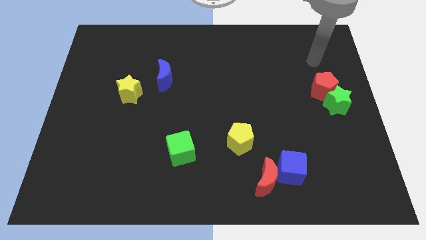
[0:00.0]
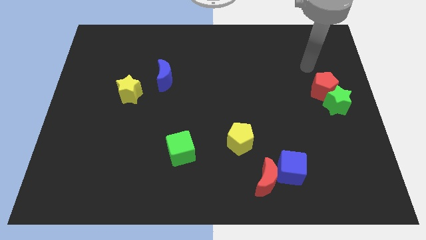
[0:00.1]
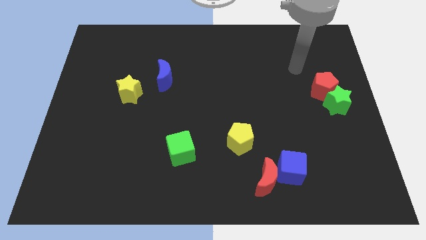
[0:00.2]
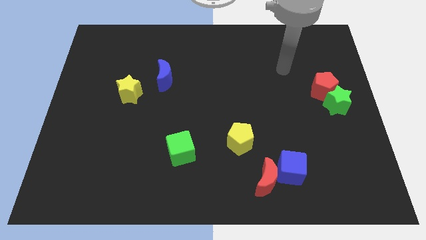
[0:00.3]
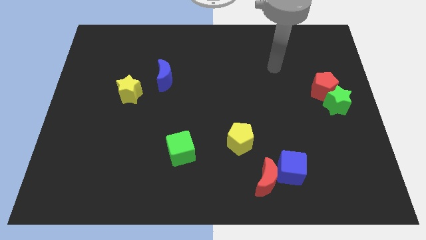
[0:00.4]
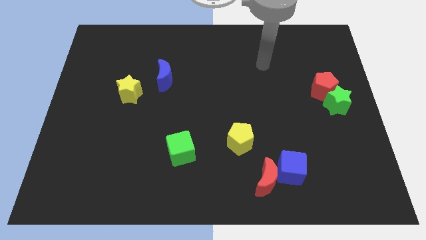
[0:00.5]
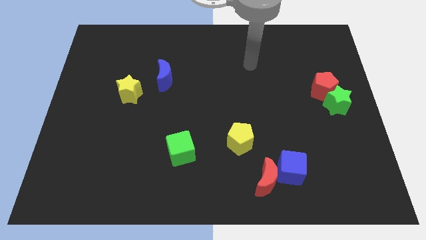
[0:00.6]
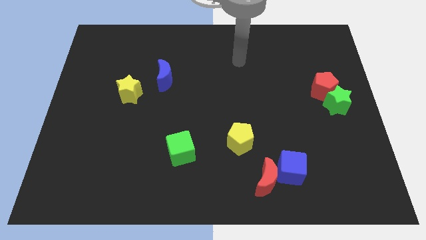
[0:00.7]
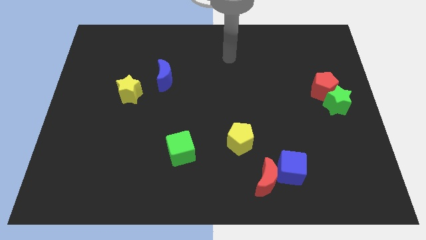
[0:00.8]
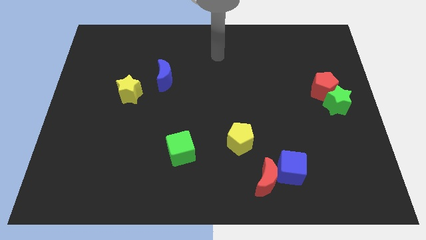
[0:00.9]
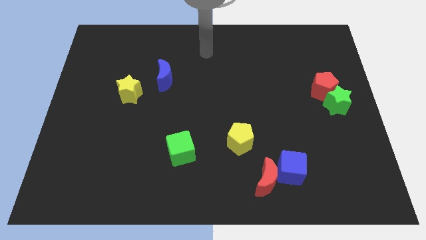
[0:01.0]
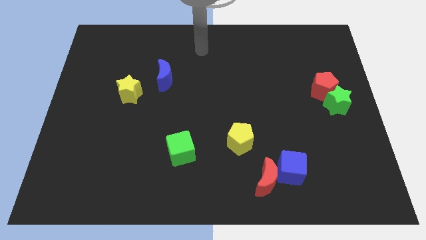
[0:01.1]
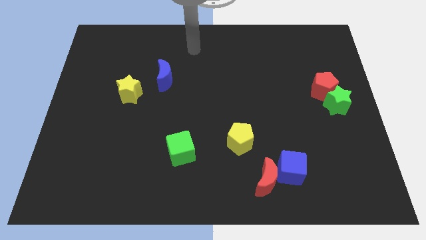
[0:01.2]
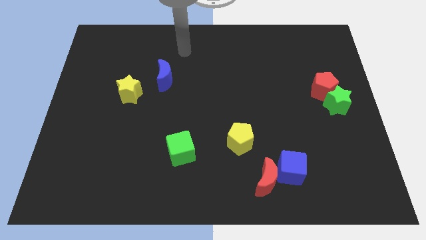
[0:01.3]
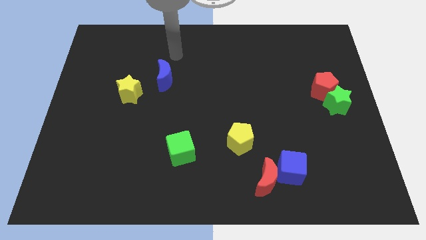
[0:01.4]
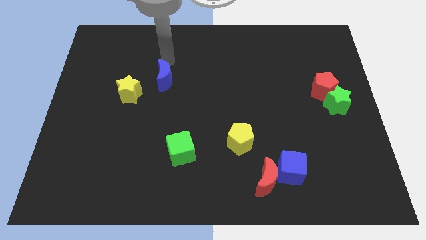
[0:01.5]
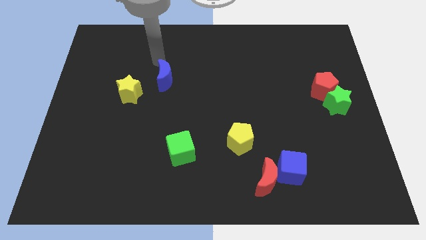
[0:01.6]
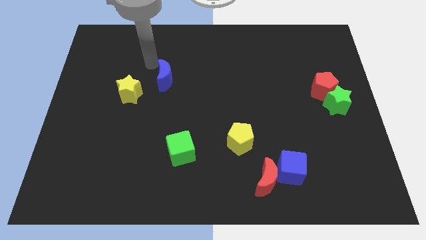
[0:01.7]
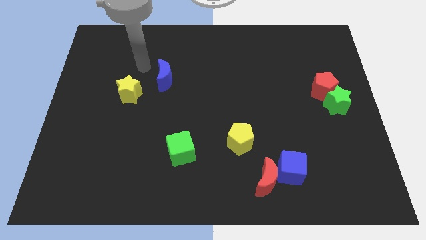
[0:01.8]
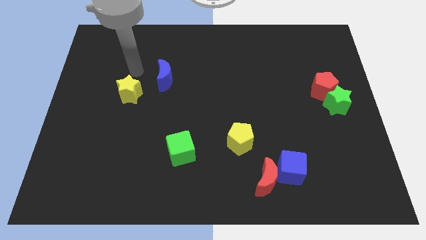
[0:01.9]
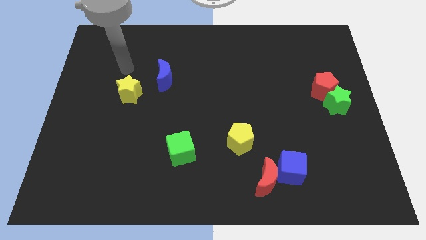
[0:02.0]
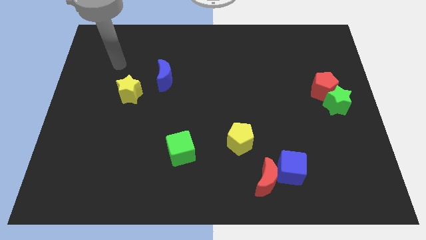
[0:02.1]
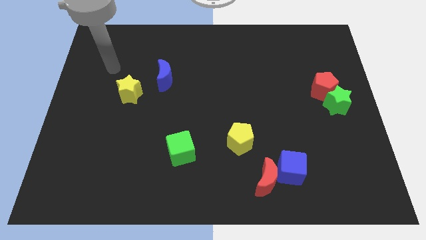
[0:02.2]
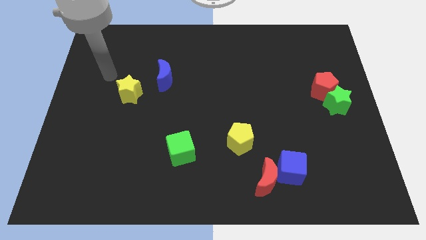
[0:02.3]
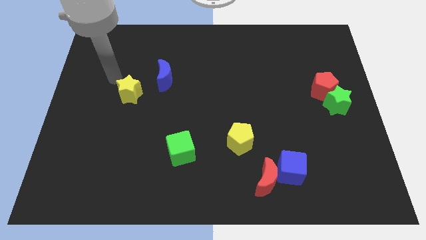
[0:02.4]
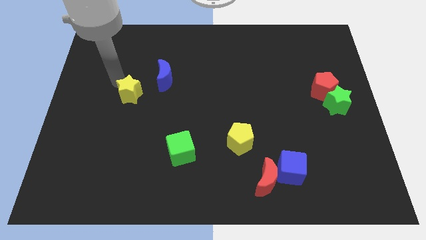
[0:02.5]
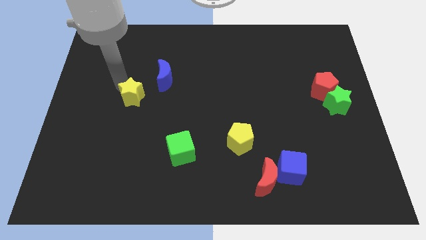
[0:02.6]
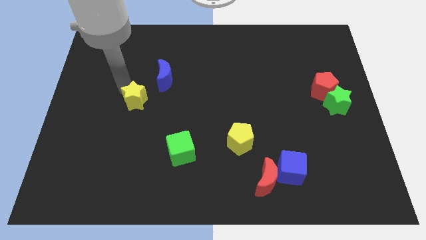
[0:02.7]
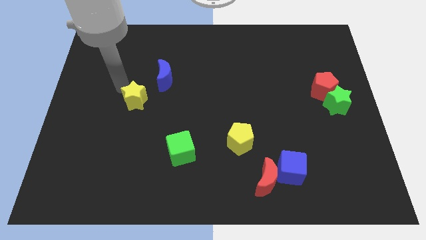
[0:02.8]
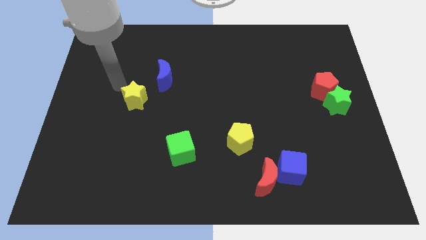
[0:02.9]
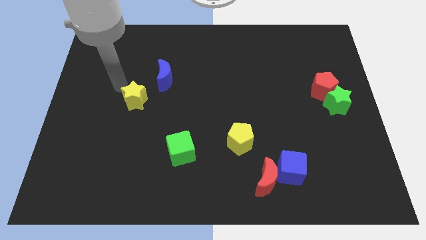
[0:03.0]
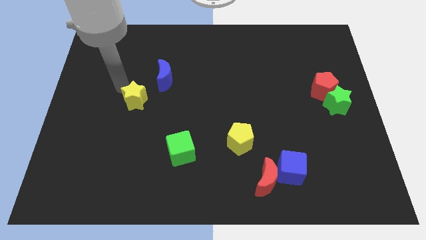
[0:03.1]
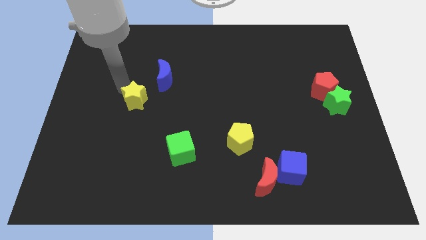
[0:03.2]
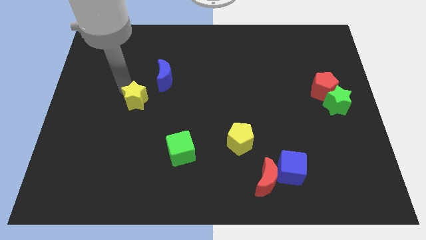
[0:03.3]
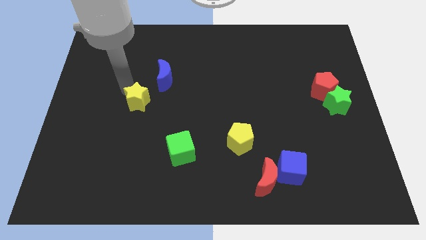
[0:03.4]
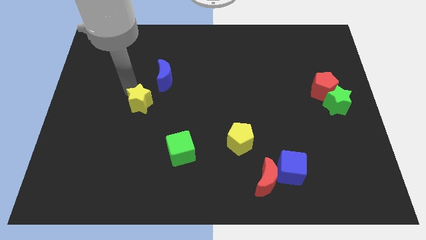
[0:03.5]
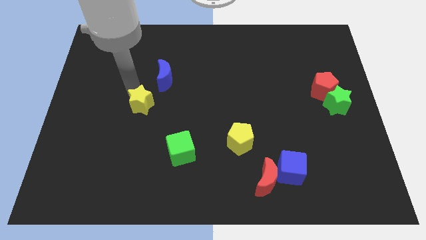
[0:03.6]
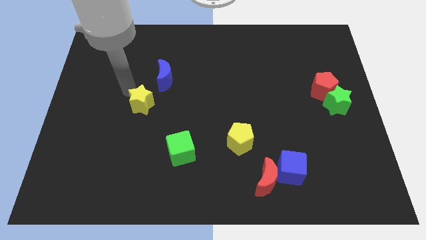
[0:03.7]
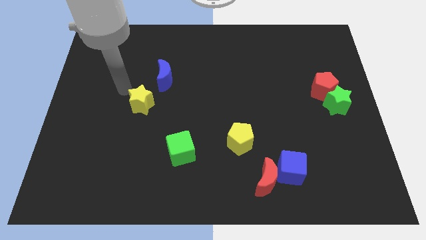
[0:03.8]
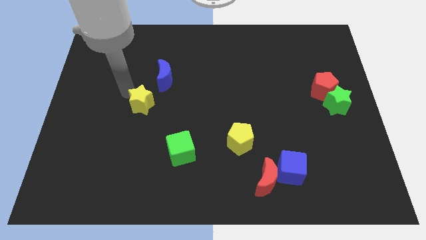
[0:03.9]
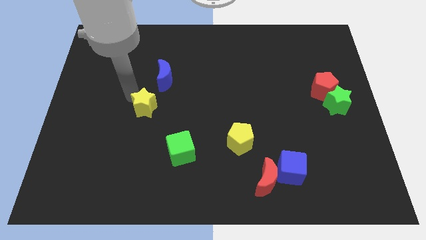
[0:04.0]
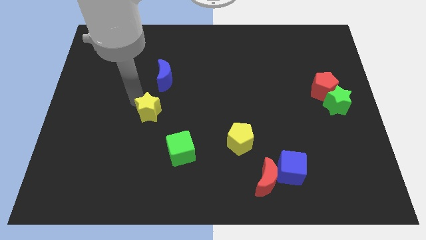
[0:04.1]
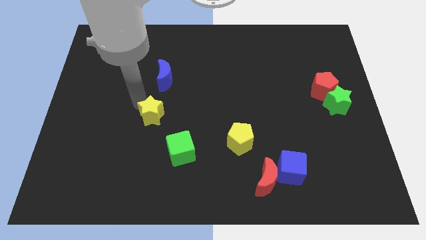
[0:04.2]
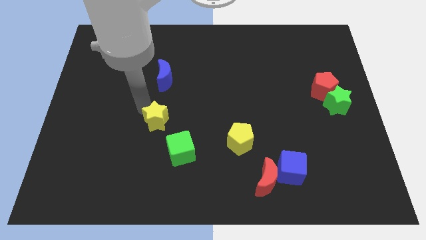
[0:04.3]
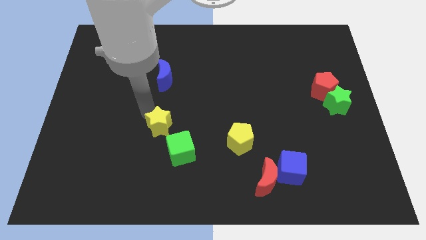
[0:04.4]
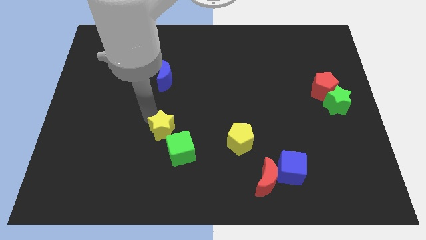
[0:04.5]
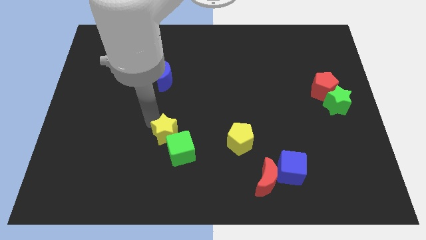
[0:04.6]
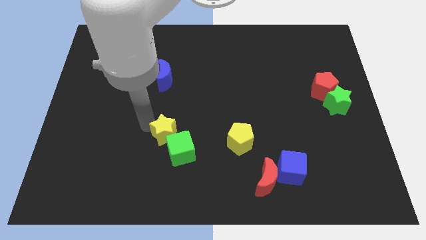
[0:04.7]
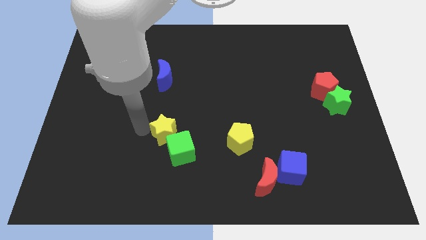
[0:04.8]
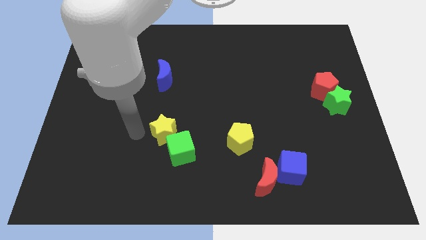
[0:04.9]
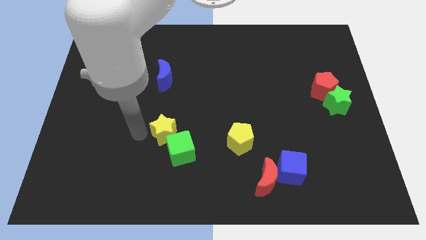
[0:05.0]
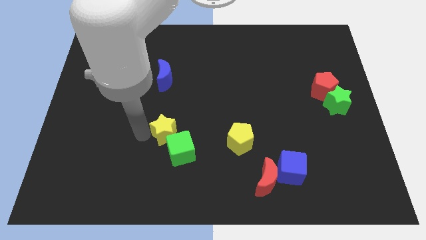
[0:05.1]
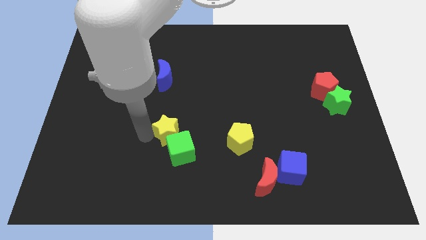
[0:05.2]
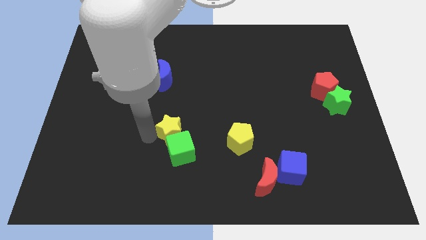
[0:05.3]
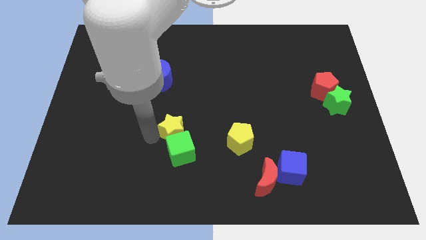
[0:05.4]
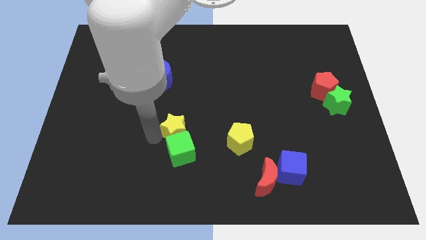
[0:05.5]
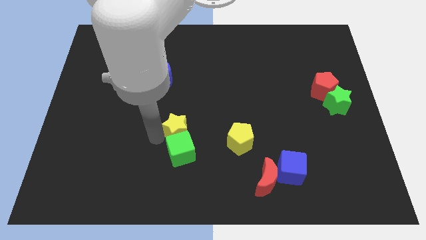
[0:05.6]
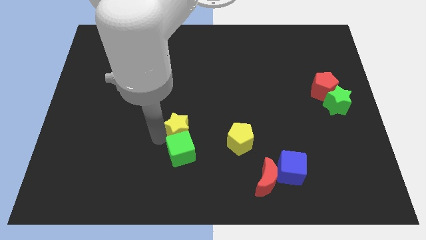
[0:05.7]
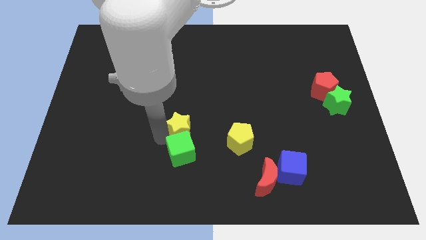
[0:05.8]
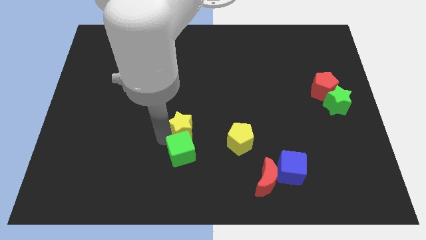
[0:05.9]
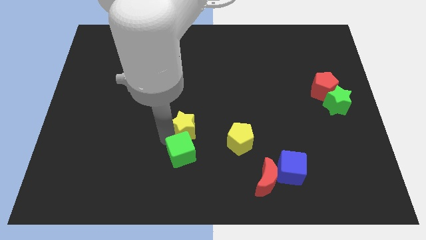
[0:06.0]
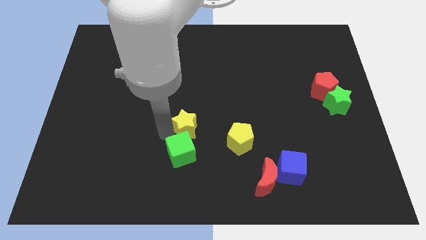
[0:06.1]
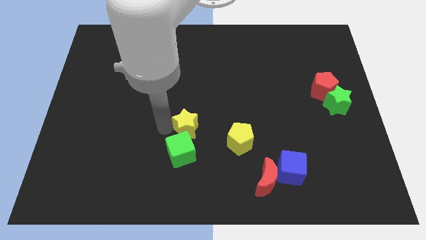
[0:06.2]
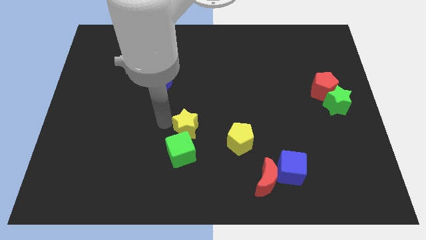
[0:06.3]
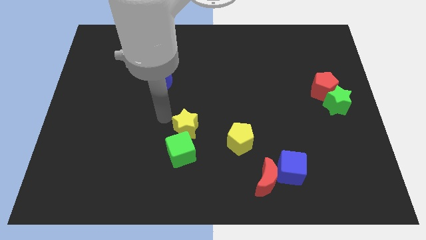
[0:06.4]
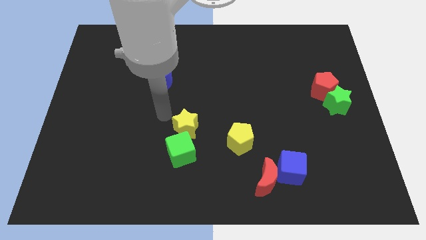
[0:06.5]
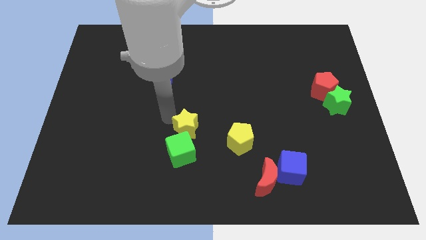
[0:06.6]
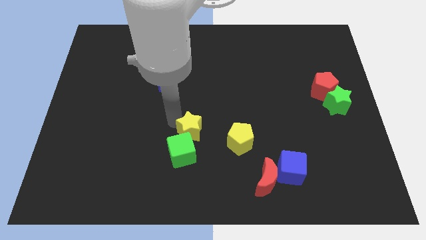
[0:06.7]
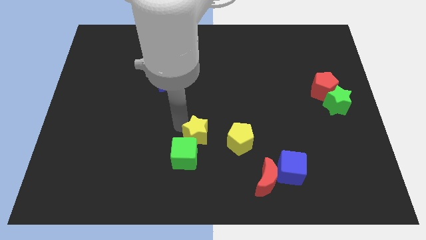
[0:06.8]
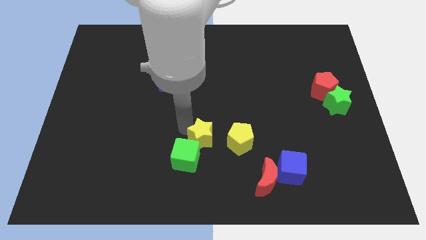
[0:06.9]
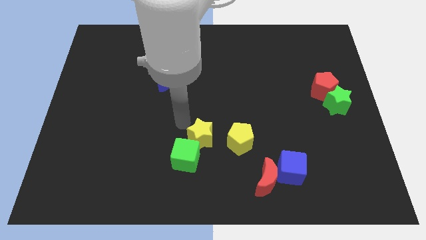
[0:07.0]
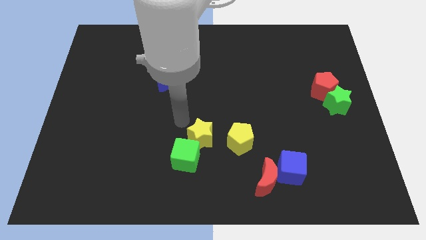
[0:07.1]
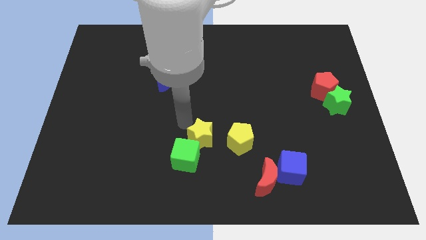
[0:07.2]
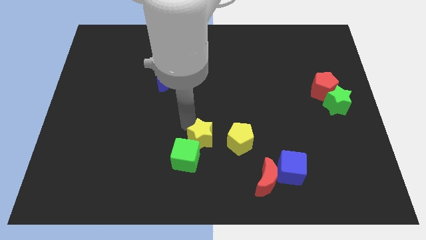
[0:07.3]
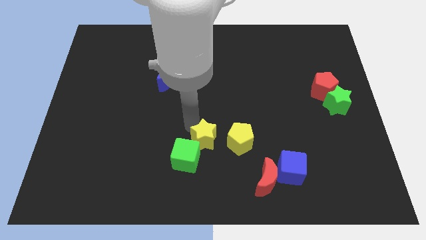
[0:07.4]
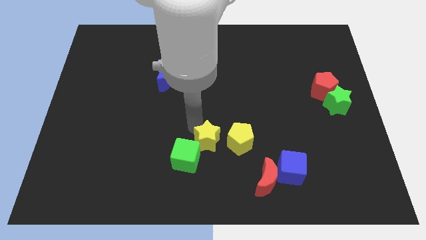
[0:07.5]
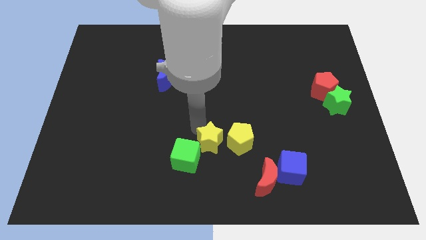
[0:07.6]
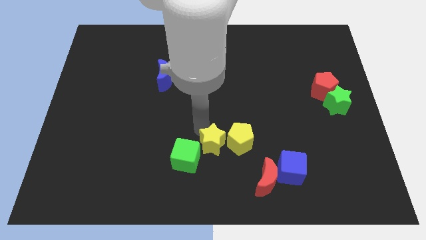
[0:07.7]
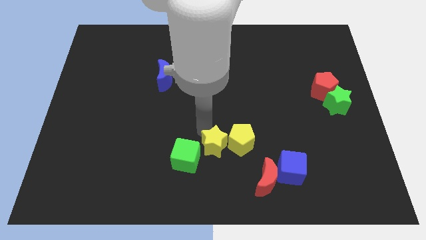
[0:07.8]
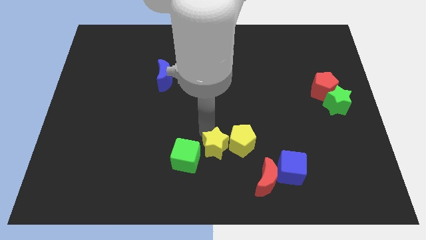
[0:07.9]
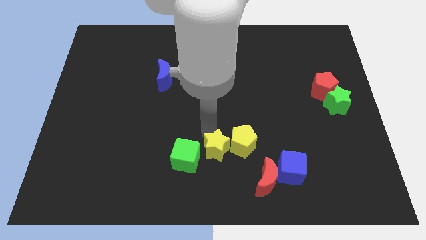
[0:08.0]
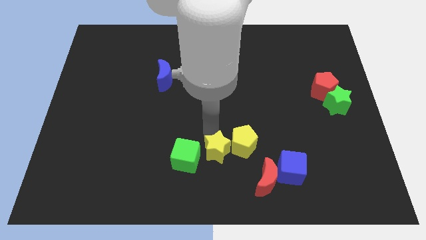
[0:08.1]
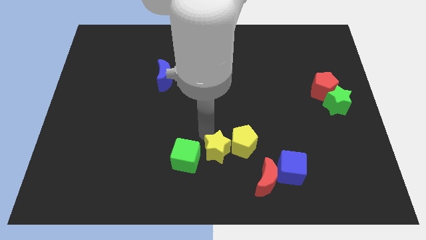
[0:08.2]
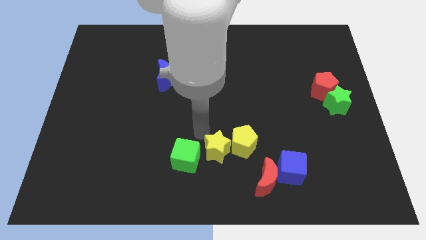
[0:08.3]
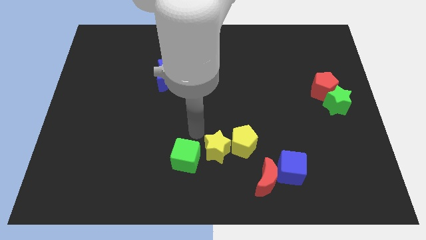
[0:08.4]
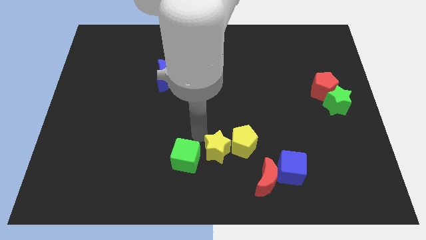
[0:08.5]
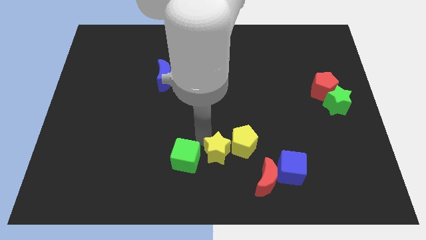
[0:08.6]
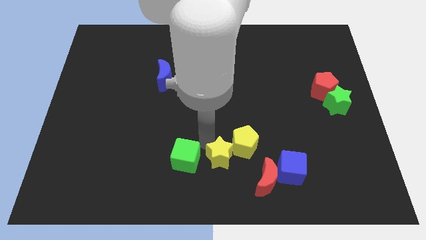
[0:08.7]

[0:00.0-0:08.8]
push the yellow star left of the blue cube
